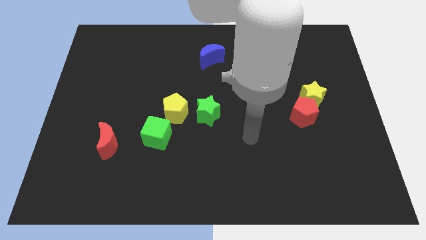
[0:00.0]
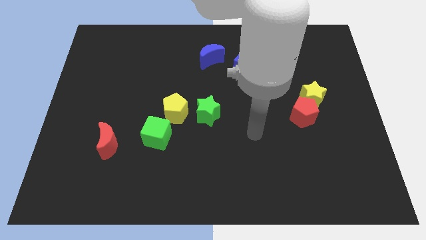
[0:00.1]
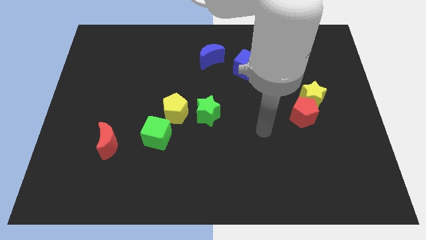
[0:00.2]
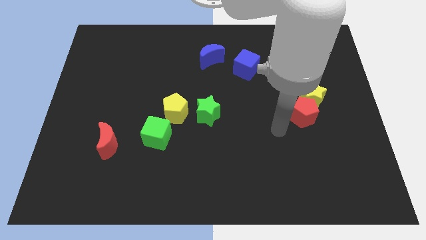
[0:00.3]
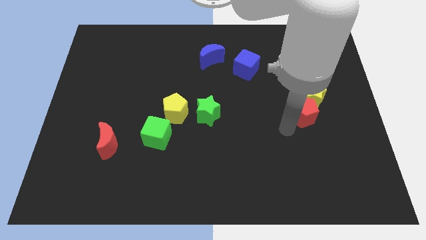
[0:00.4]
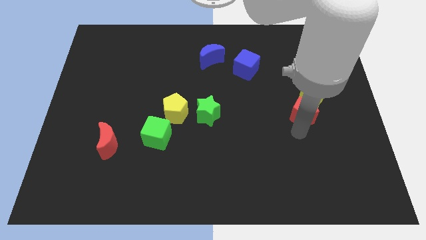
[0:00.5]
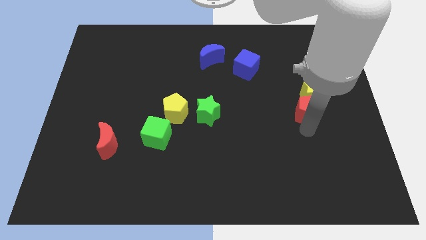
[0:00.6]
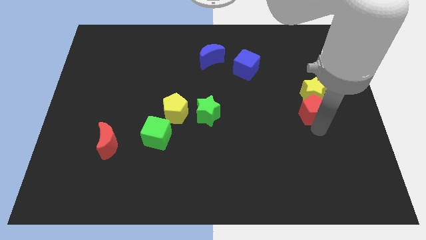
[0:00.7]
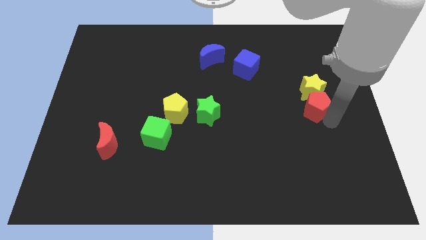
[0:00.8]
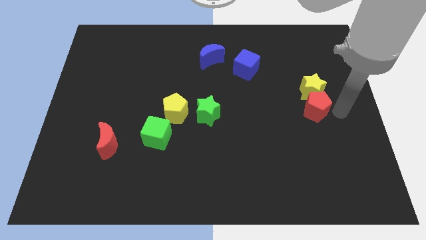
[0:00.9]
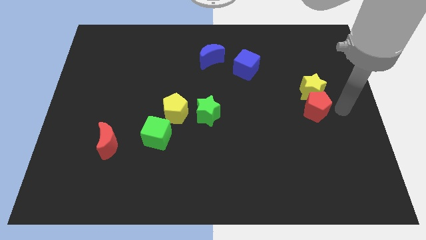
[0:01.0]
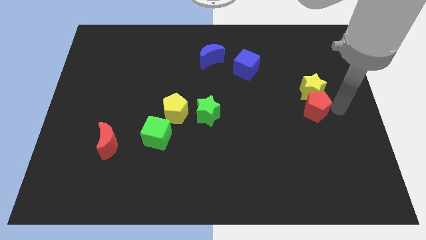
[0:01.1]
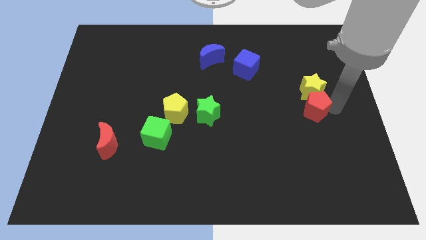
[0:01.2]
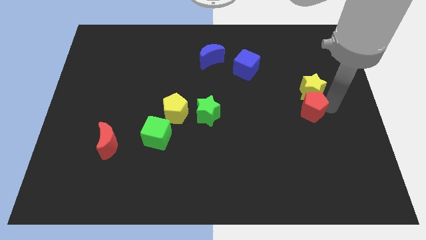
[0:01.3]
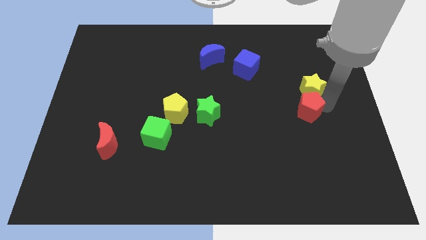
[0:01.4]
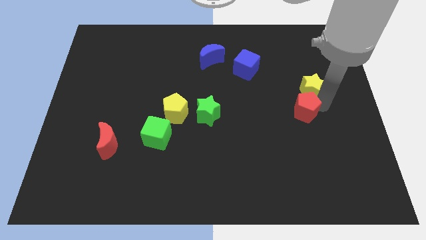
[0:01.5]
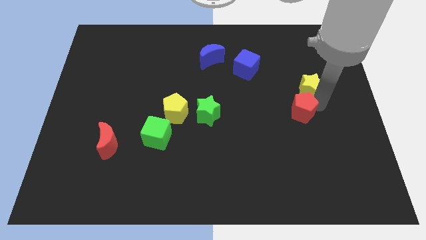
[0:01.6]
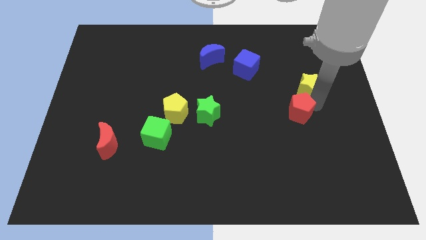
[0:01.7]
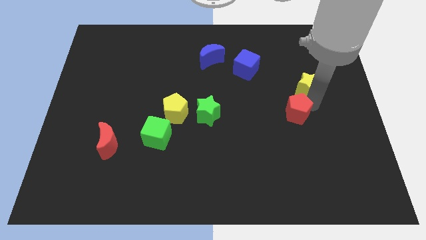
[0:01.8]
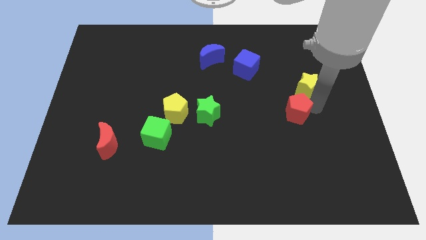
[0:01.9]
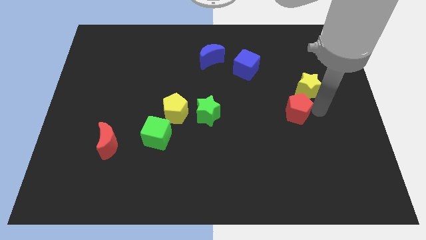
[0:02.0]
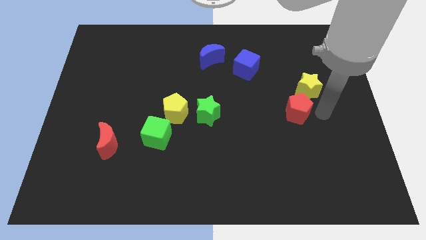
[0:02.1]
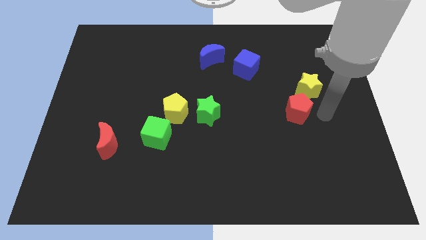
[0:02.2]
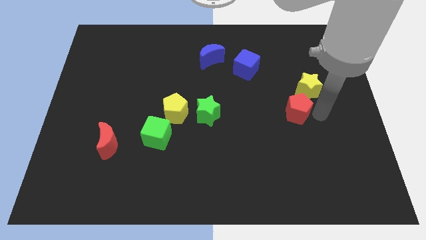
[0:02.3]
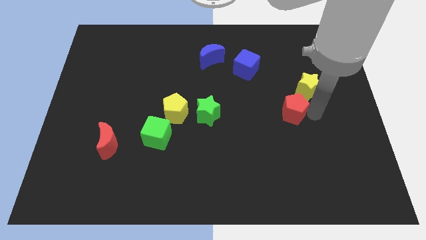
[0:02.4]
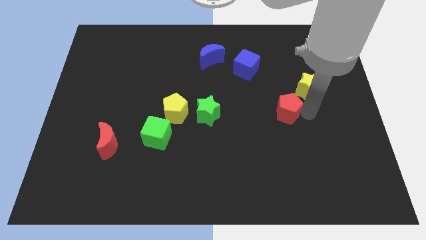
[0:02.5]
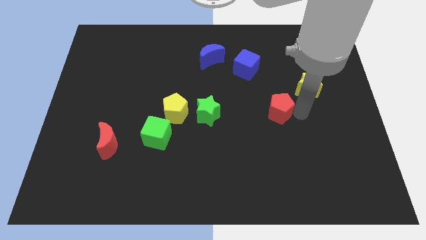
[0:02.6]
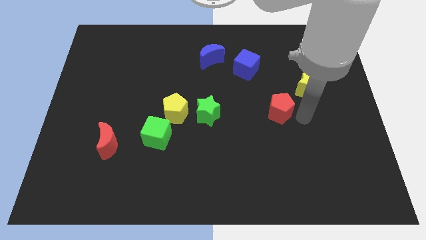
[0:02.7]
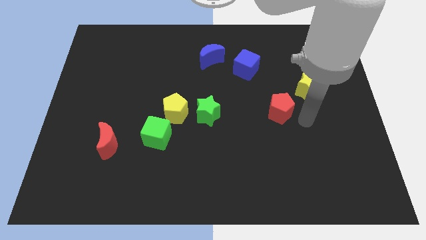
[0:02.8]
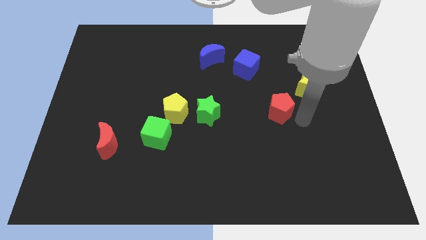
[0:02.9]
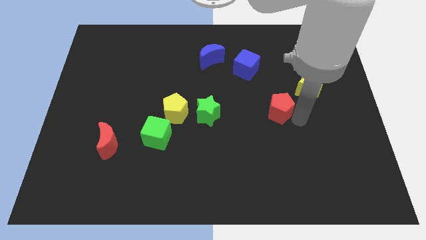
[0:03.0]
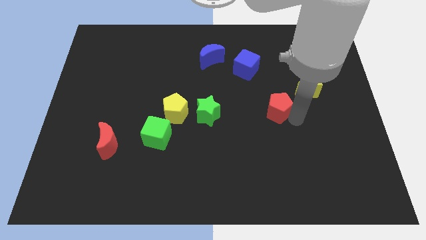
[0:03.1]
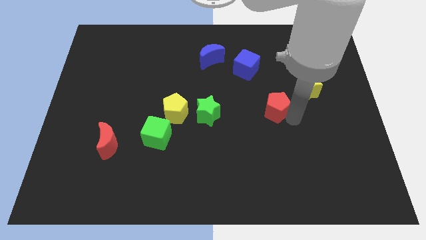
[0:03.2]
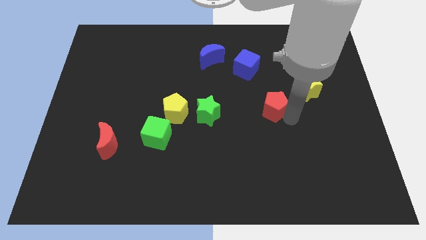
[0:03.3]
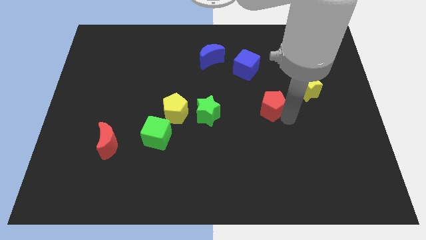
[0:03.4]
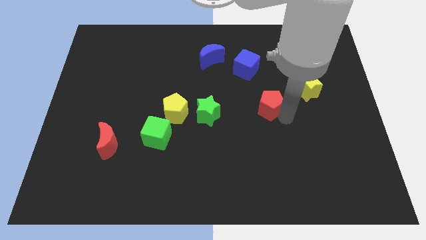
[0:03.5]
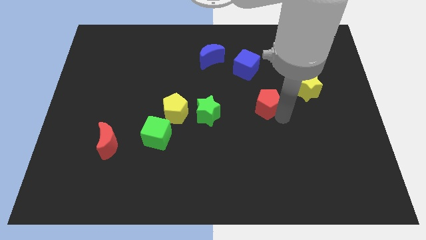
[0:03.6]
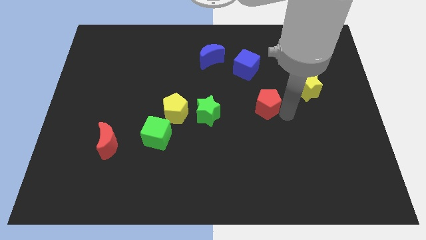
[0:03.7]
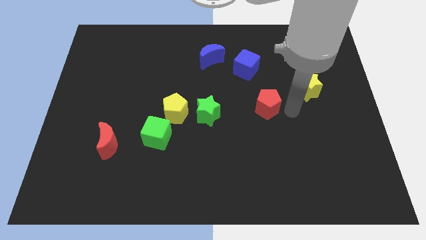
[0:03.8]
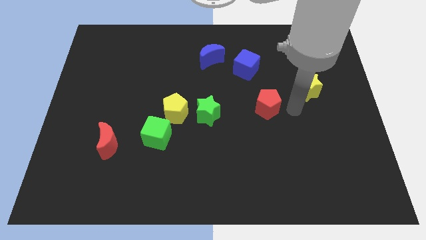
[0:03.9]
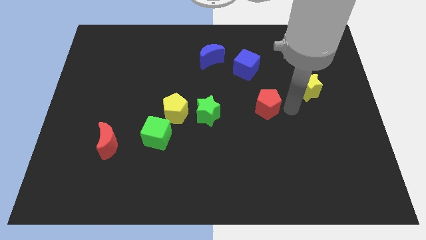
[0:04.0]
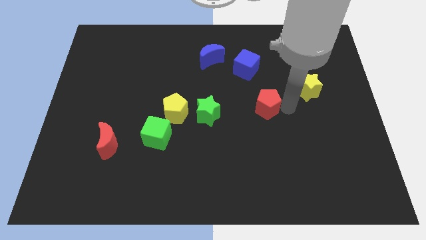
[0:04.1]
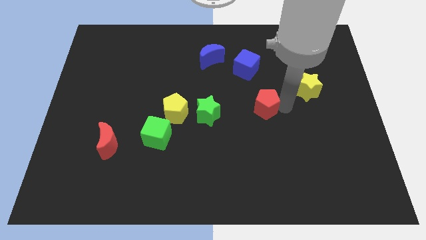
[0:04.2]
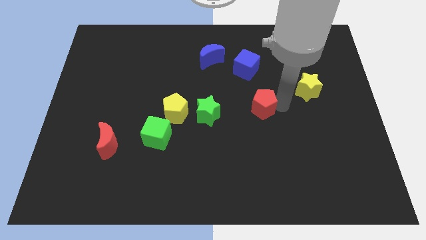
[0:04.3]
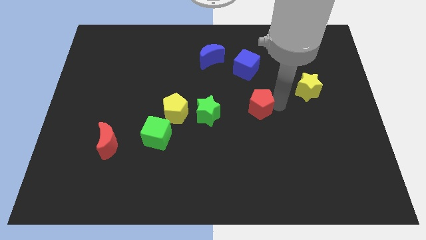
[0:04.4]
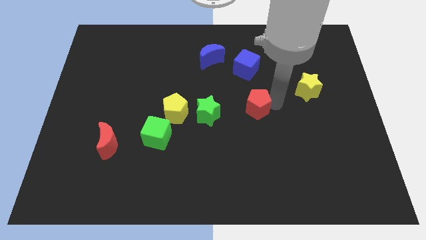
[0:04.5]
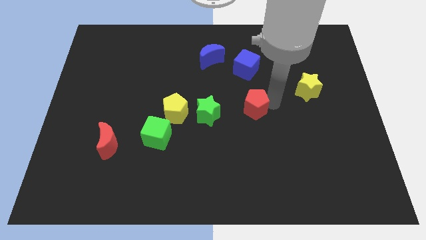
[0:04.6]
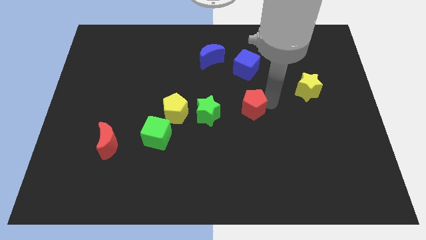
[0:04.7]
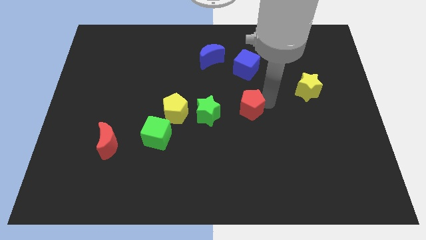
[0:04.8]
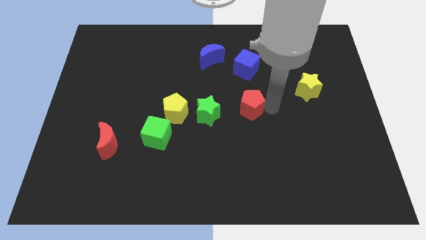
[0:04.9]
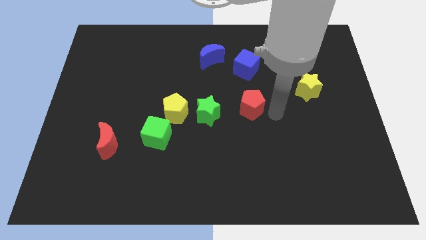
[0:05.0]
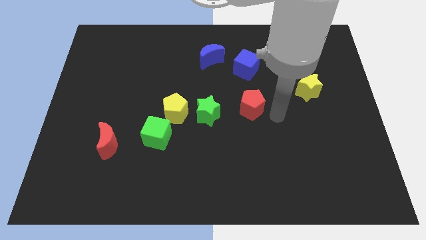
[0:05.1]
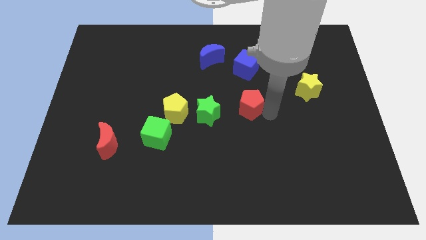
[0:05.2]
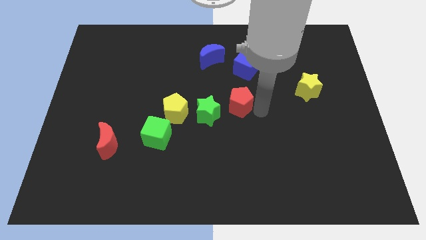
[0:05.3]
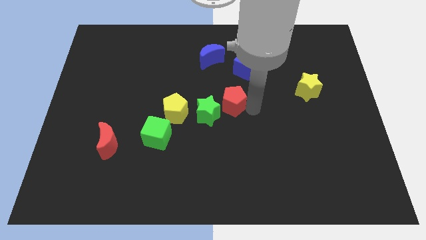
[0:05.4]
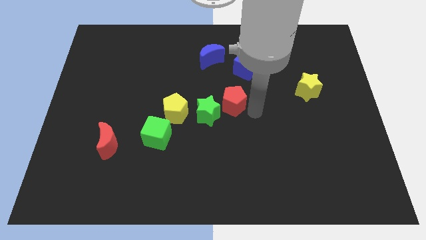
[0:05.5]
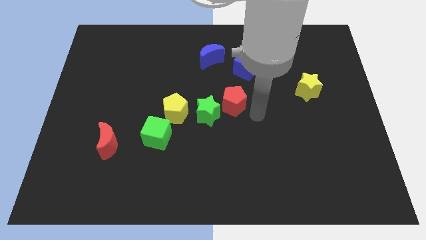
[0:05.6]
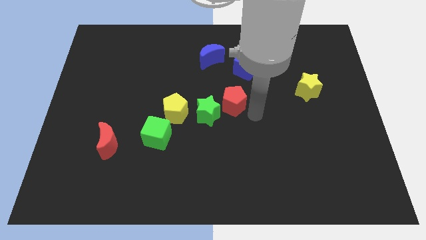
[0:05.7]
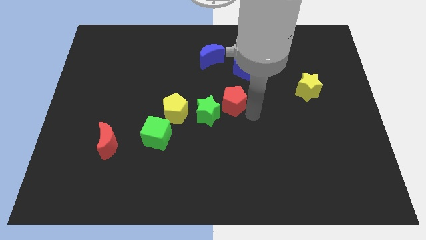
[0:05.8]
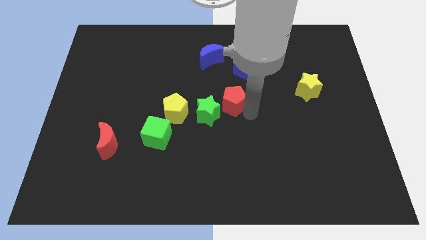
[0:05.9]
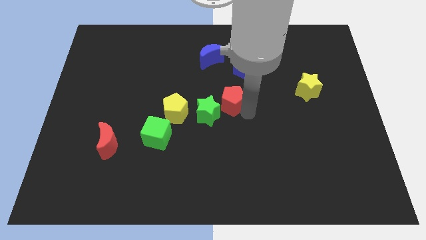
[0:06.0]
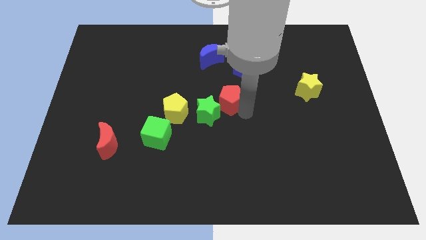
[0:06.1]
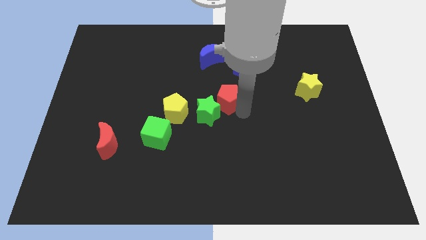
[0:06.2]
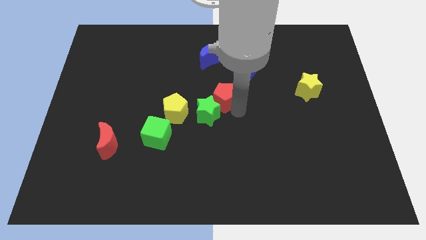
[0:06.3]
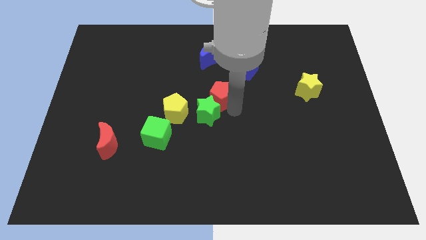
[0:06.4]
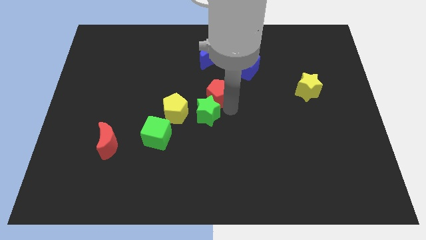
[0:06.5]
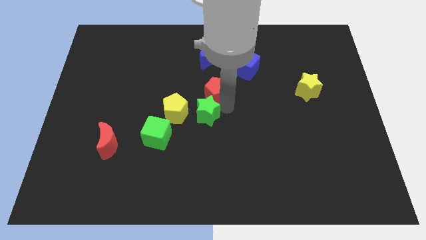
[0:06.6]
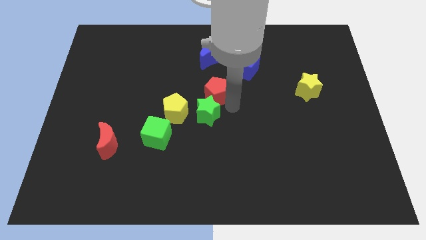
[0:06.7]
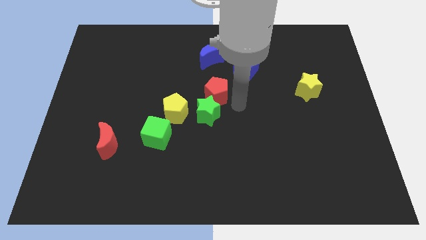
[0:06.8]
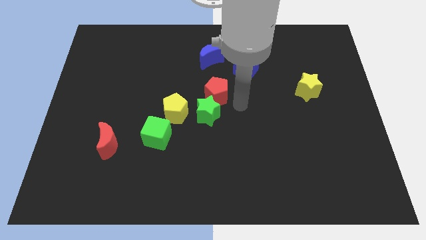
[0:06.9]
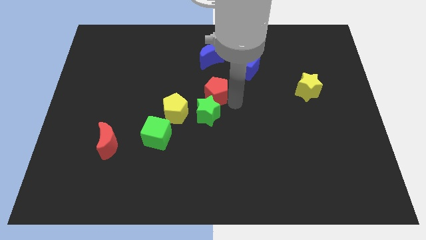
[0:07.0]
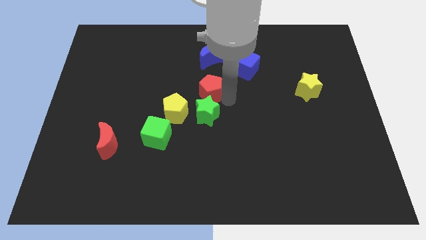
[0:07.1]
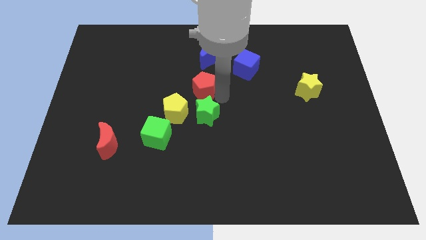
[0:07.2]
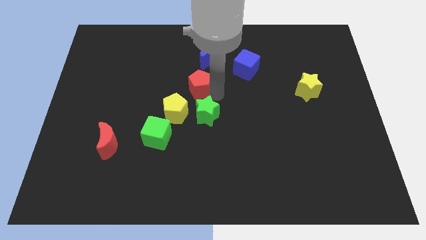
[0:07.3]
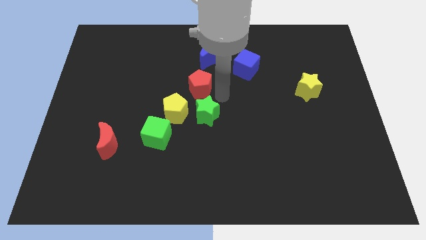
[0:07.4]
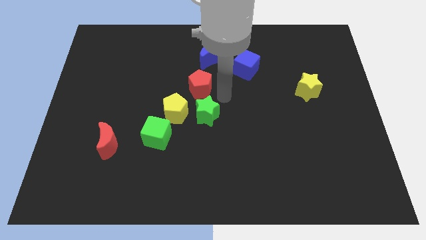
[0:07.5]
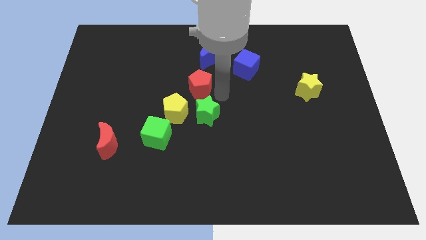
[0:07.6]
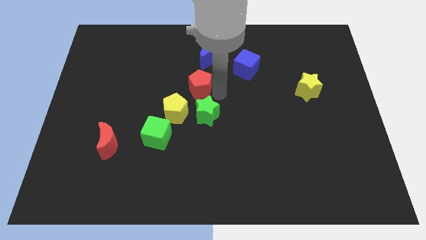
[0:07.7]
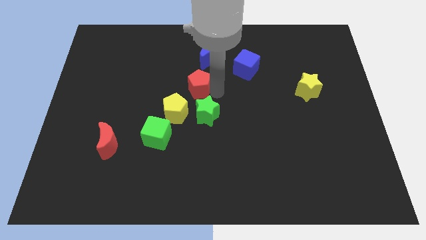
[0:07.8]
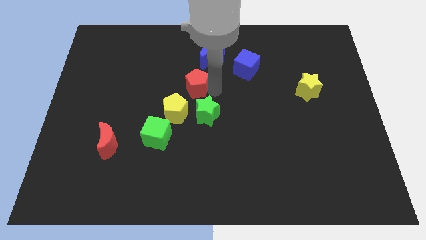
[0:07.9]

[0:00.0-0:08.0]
push the red pentagon to the top of the yellow pentagon
